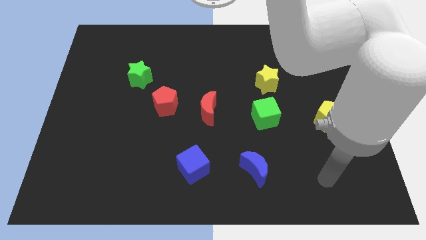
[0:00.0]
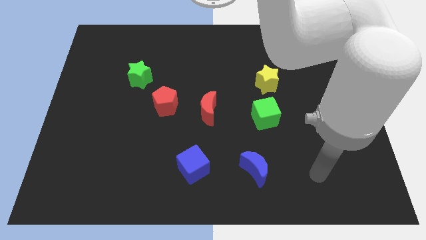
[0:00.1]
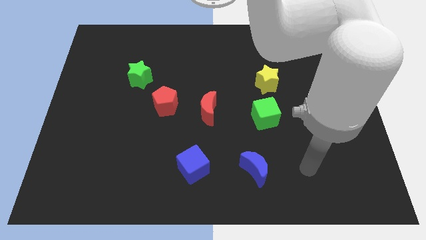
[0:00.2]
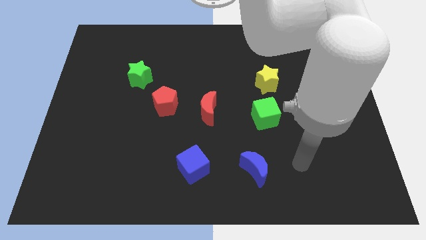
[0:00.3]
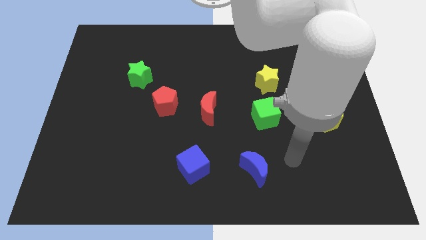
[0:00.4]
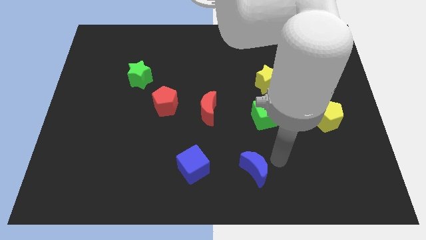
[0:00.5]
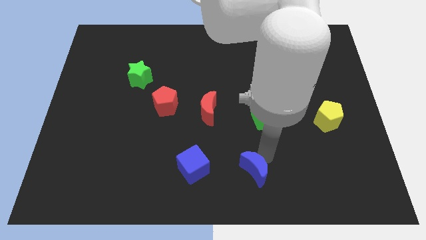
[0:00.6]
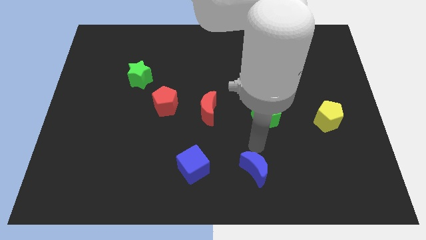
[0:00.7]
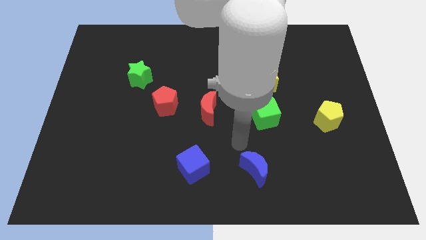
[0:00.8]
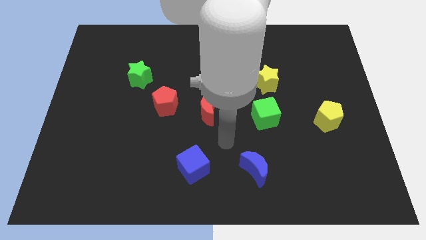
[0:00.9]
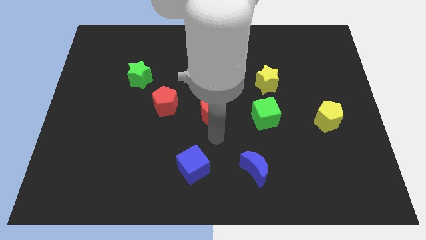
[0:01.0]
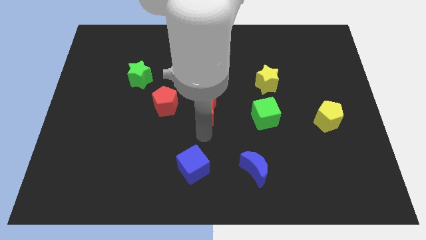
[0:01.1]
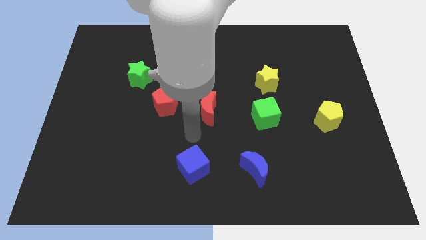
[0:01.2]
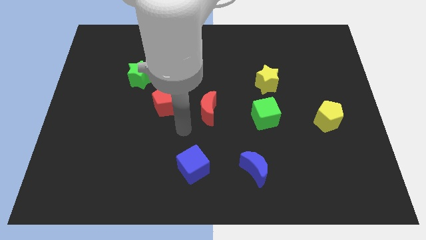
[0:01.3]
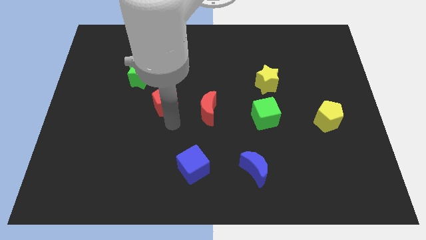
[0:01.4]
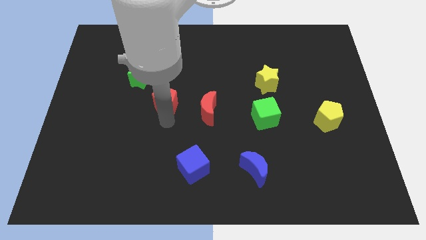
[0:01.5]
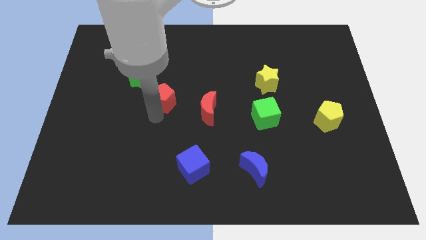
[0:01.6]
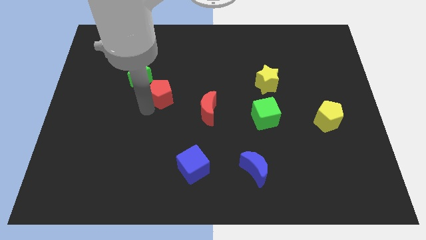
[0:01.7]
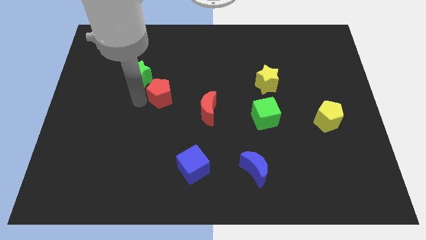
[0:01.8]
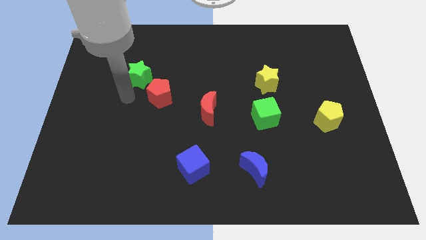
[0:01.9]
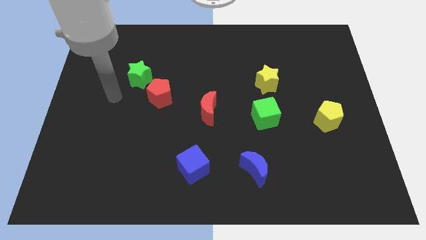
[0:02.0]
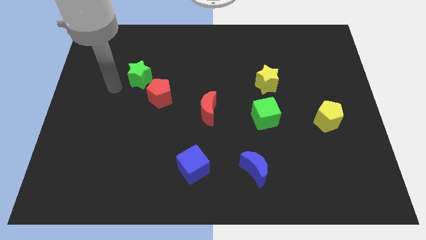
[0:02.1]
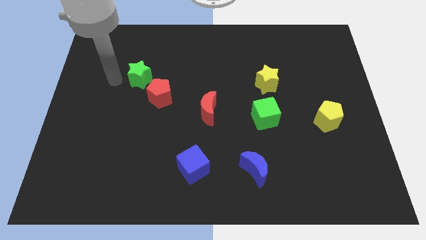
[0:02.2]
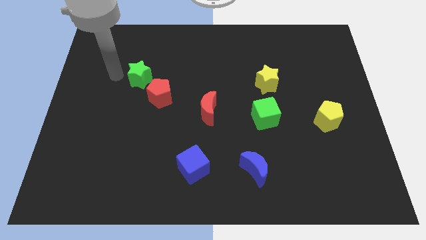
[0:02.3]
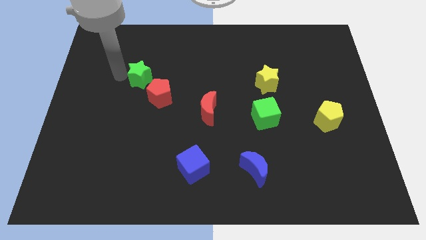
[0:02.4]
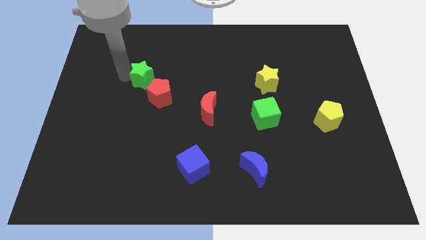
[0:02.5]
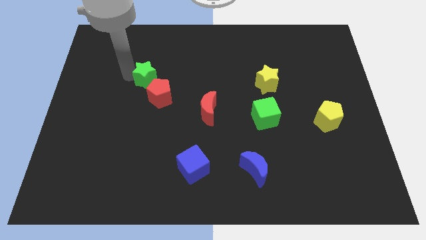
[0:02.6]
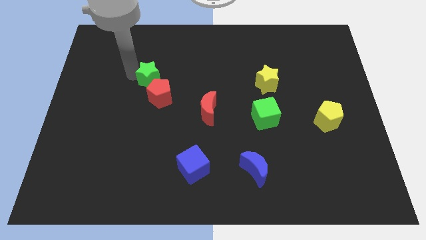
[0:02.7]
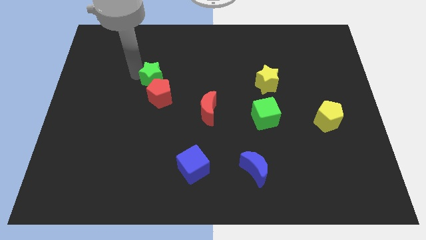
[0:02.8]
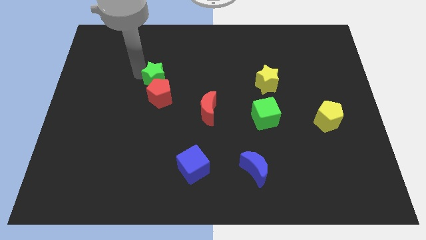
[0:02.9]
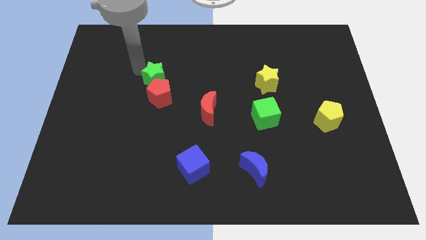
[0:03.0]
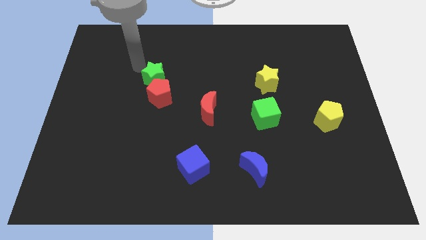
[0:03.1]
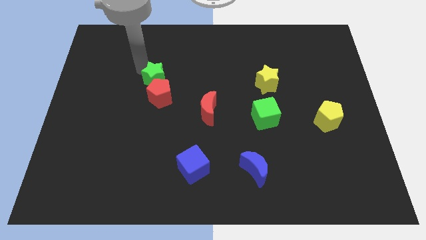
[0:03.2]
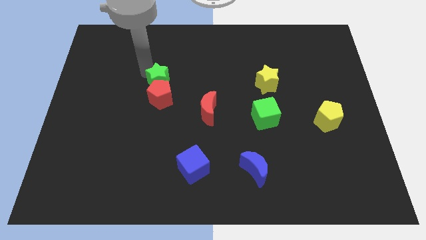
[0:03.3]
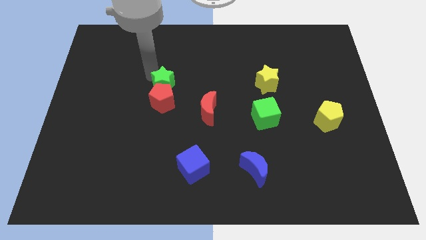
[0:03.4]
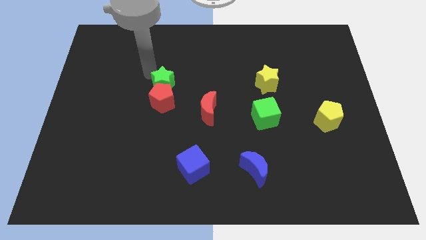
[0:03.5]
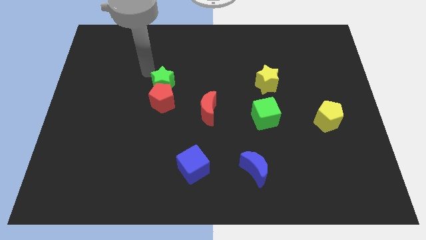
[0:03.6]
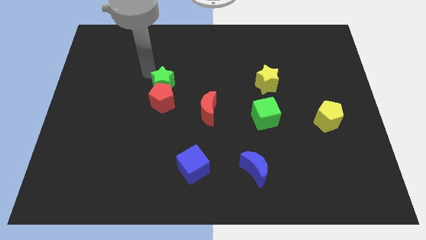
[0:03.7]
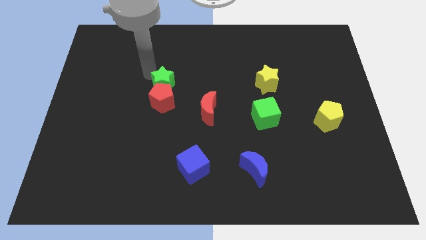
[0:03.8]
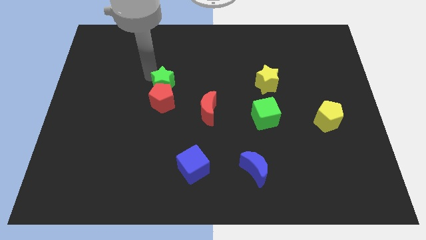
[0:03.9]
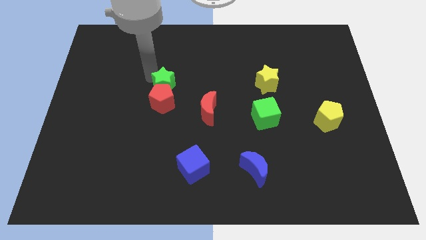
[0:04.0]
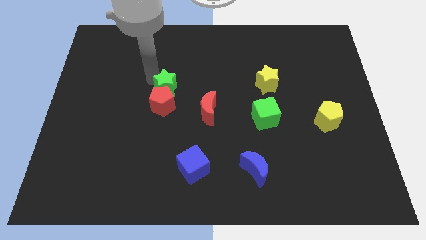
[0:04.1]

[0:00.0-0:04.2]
slightly slide the green star down and right

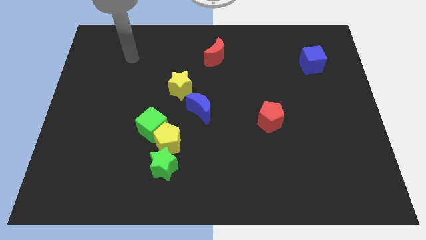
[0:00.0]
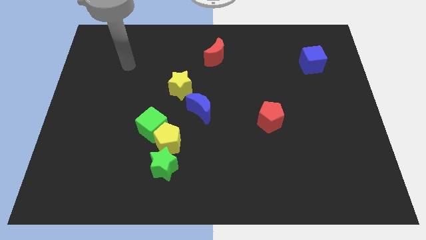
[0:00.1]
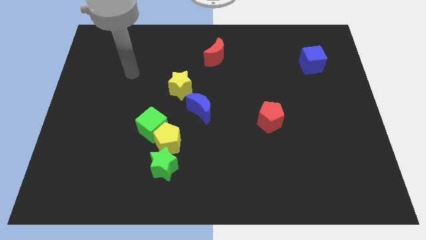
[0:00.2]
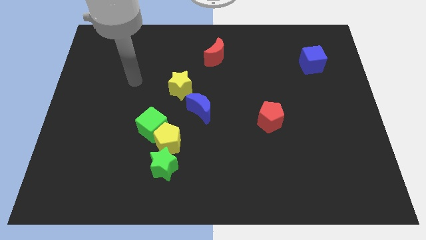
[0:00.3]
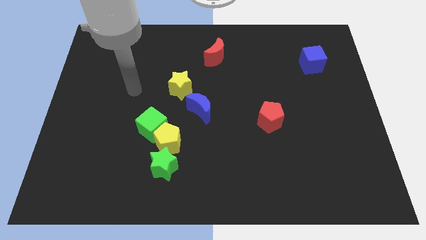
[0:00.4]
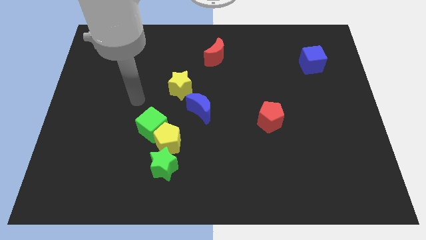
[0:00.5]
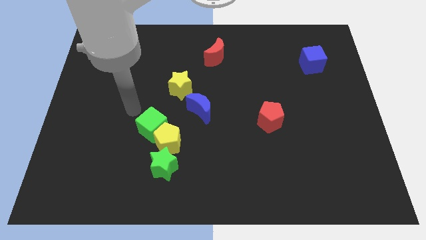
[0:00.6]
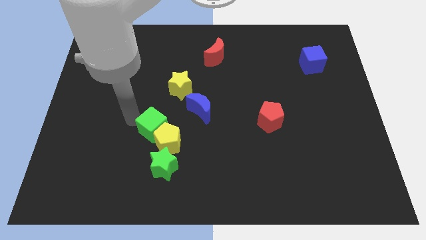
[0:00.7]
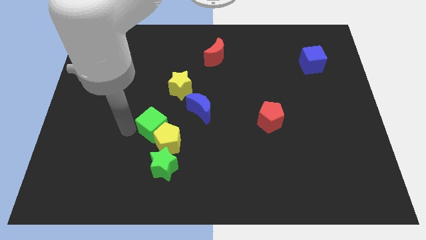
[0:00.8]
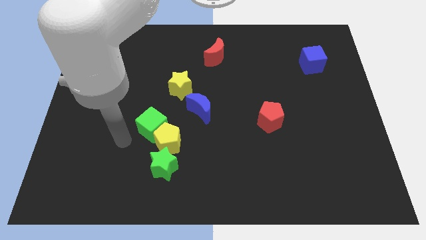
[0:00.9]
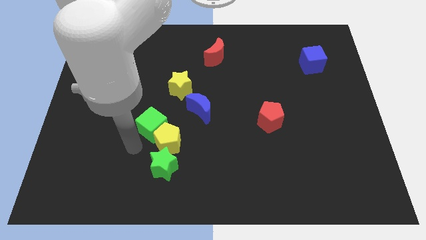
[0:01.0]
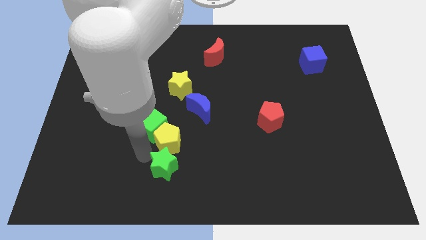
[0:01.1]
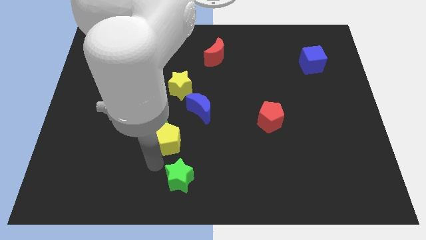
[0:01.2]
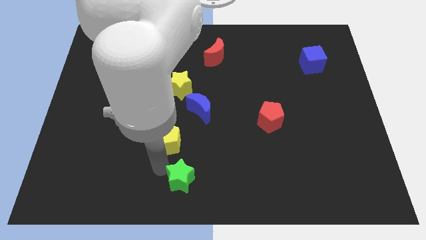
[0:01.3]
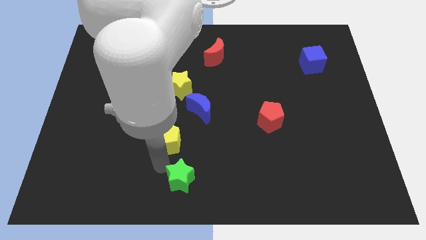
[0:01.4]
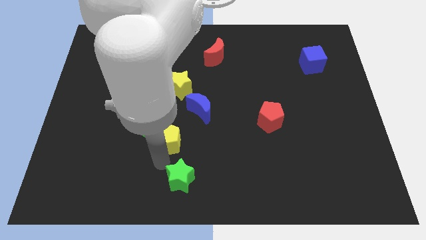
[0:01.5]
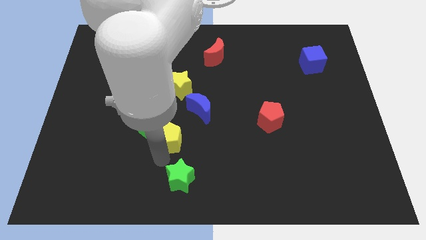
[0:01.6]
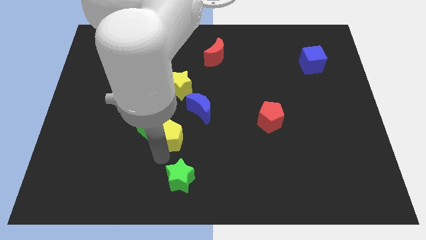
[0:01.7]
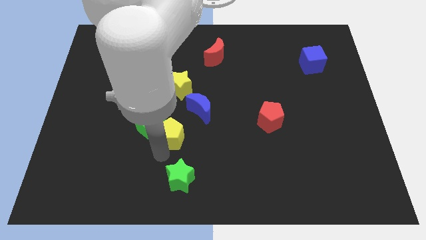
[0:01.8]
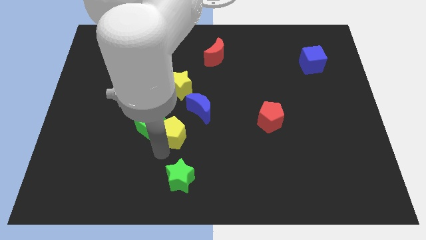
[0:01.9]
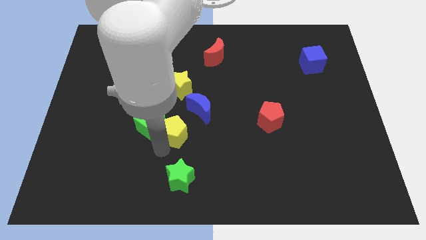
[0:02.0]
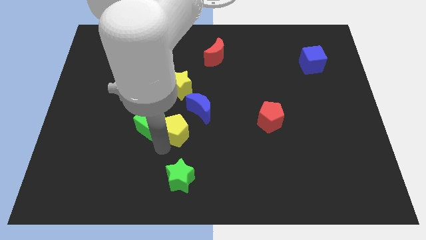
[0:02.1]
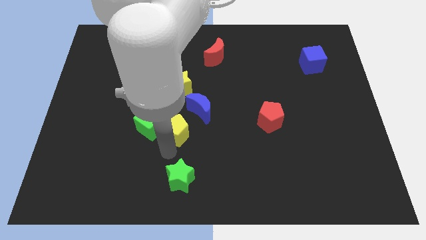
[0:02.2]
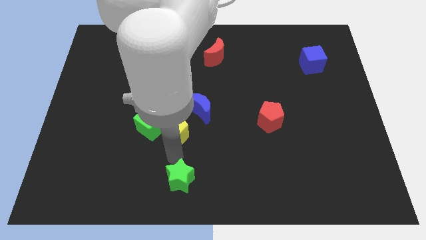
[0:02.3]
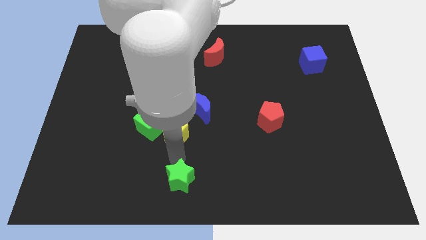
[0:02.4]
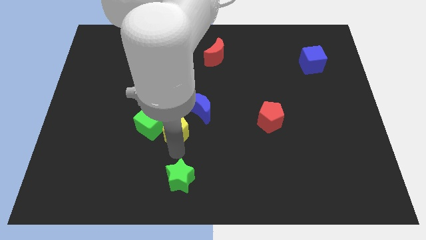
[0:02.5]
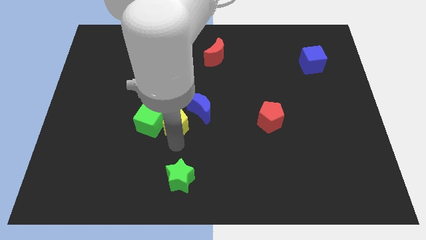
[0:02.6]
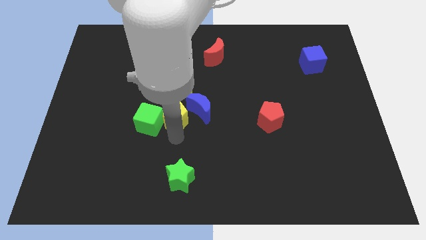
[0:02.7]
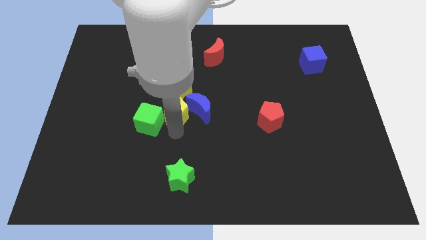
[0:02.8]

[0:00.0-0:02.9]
slightly push the yellow pentagon up

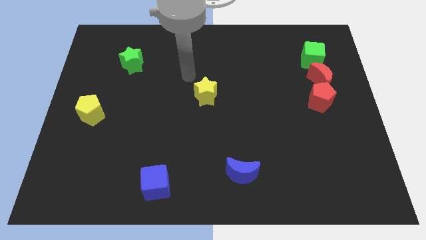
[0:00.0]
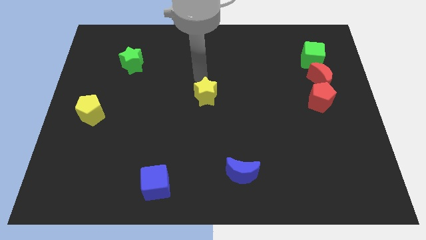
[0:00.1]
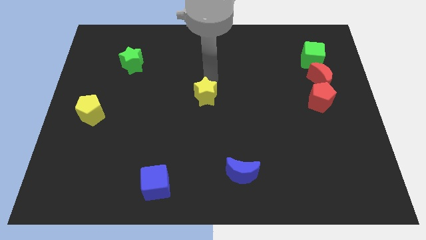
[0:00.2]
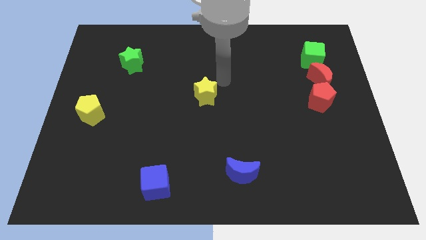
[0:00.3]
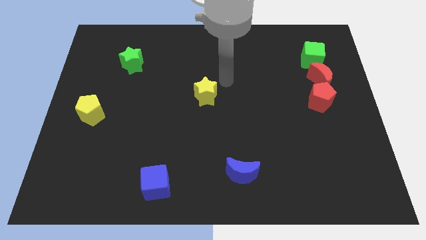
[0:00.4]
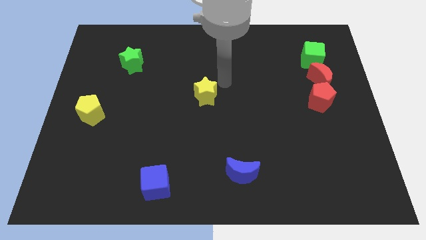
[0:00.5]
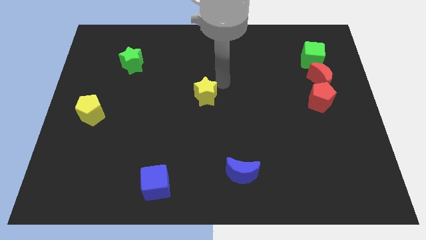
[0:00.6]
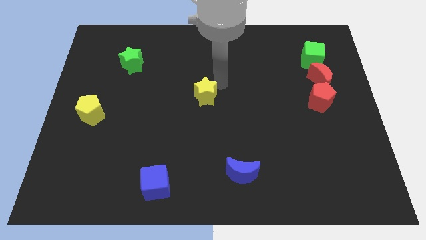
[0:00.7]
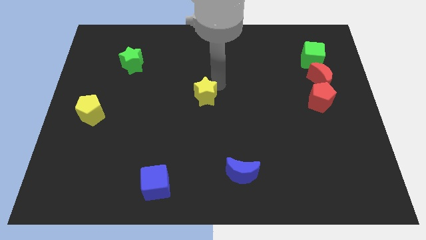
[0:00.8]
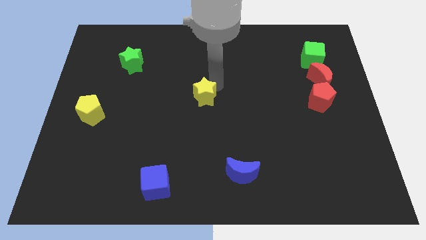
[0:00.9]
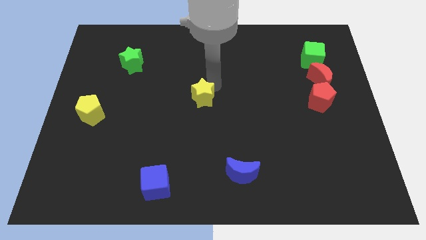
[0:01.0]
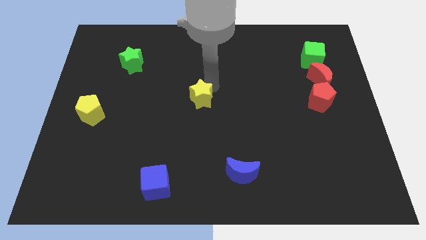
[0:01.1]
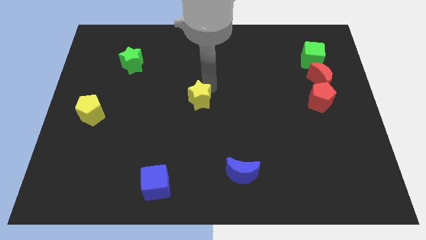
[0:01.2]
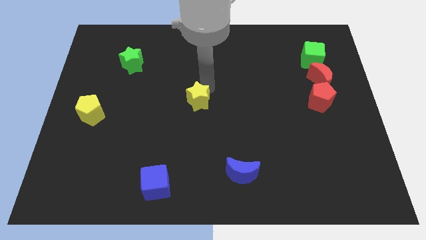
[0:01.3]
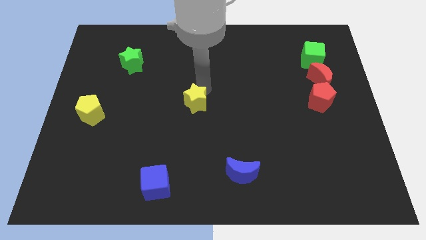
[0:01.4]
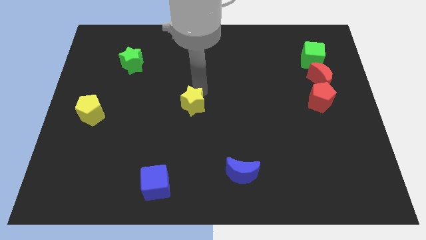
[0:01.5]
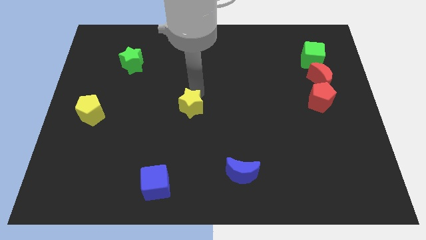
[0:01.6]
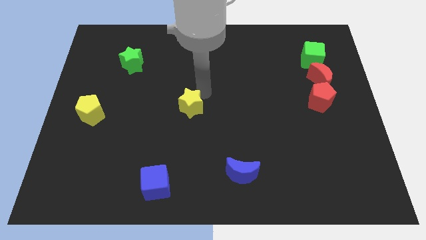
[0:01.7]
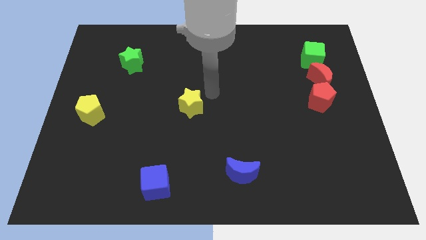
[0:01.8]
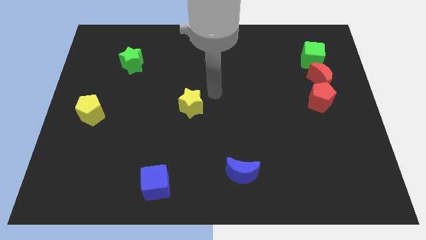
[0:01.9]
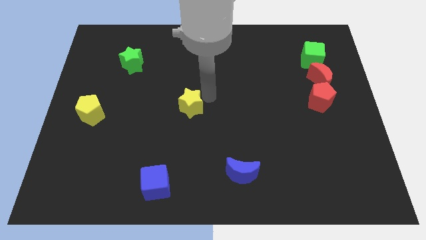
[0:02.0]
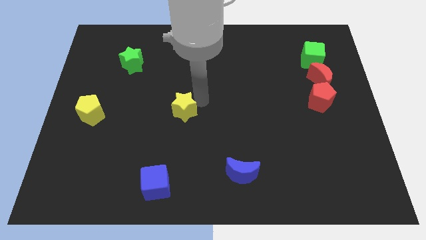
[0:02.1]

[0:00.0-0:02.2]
slide the yellow star downwards and to the left diagonally a little
